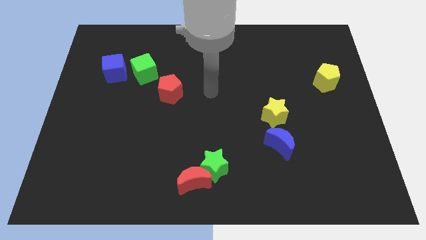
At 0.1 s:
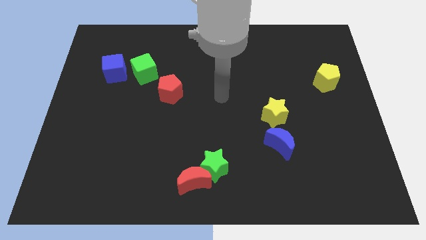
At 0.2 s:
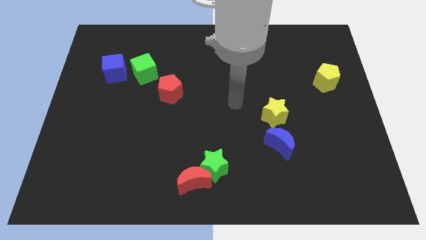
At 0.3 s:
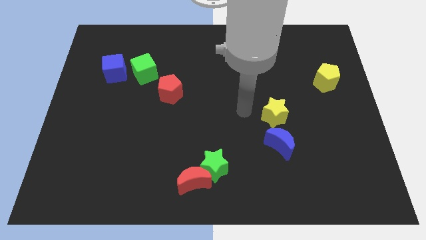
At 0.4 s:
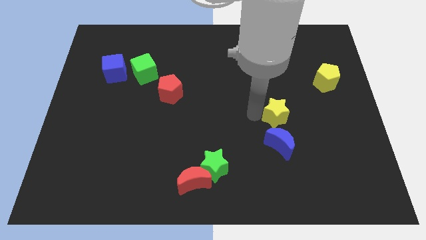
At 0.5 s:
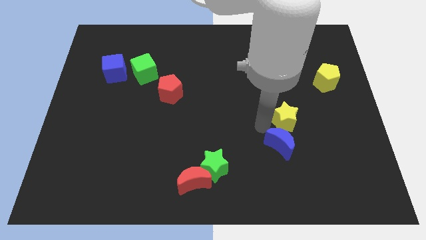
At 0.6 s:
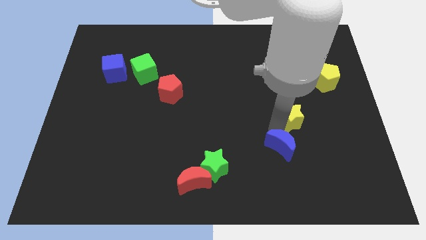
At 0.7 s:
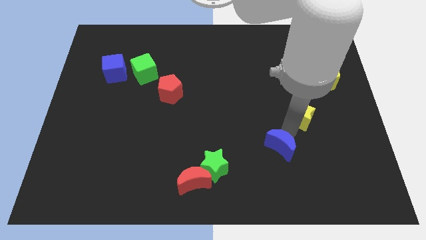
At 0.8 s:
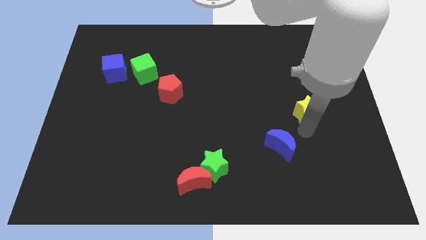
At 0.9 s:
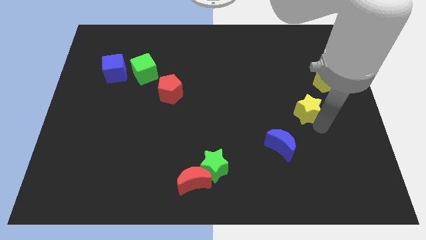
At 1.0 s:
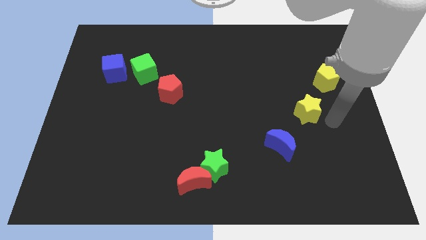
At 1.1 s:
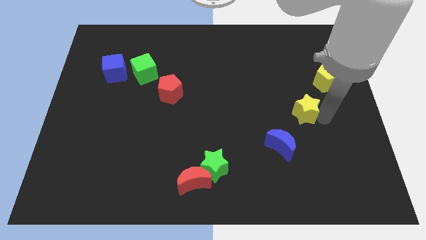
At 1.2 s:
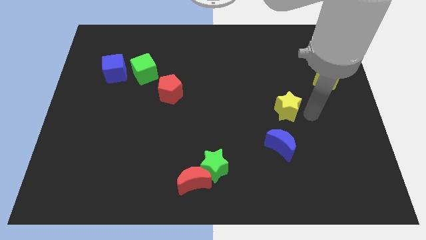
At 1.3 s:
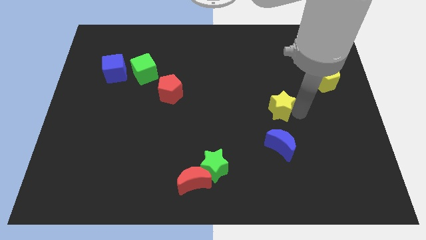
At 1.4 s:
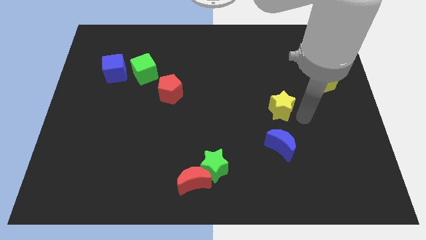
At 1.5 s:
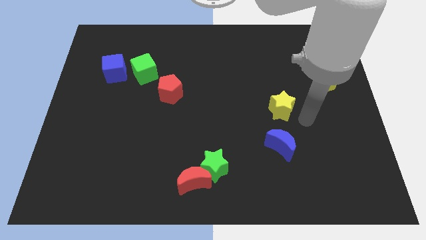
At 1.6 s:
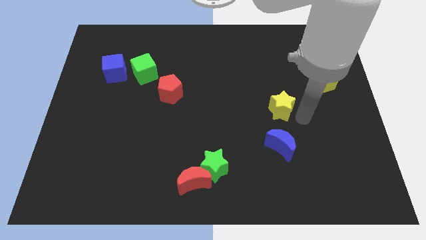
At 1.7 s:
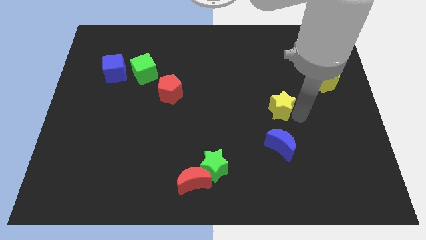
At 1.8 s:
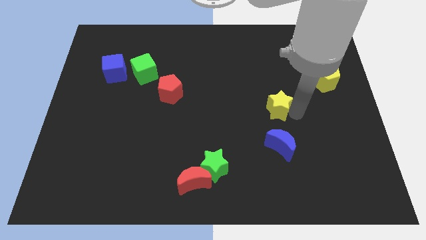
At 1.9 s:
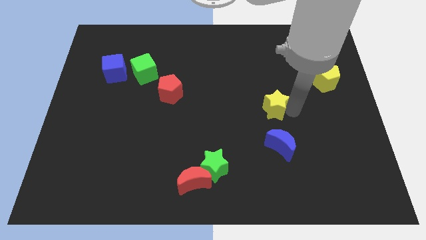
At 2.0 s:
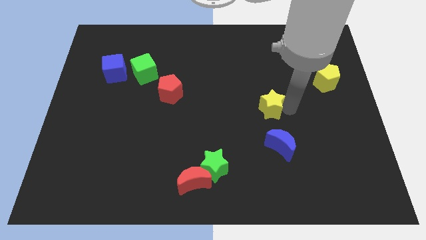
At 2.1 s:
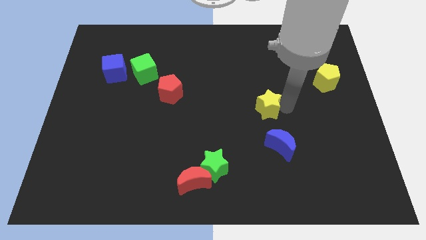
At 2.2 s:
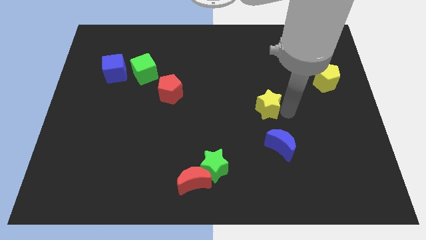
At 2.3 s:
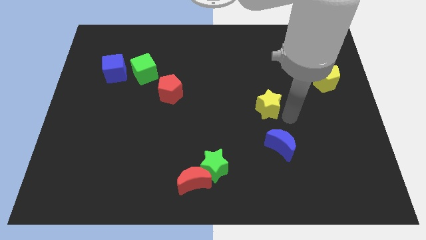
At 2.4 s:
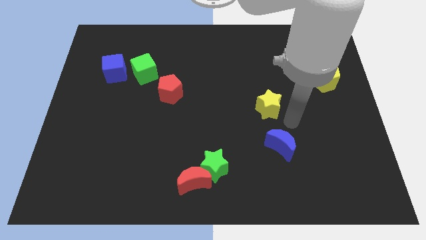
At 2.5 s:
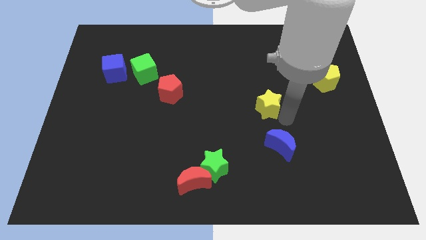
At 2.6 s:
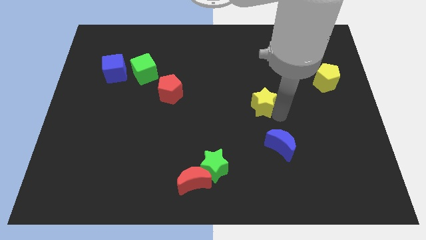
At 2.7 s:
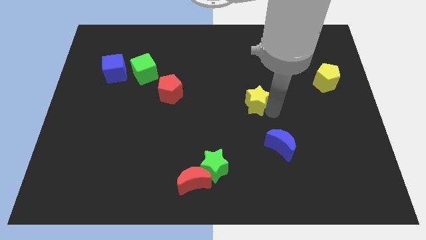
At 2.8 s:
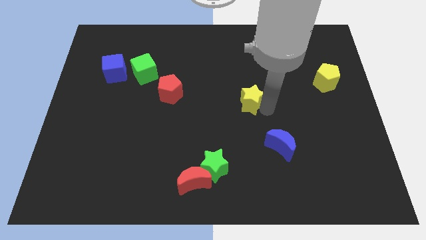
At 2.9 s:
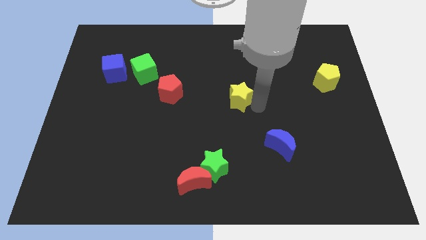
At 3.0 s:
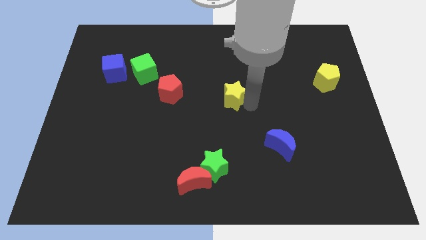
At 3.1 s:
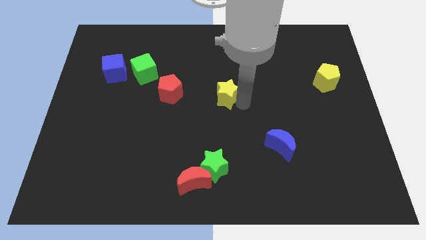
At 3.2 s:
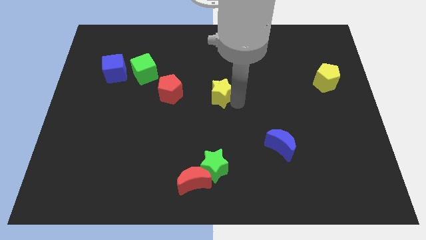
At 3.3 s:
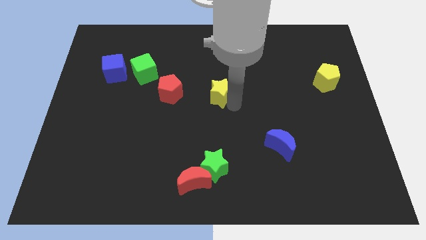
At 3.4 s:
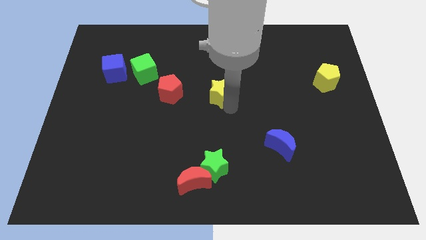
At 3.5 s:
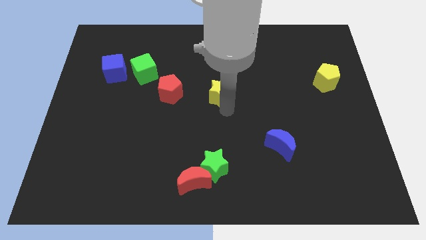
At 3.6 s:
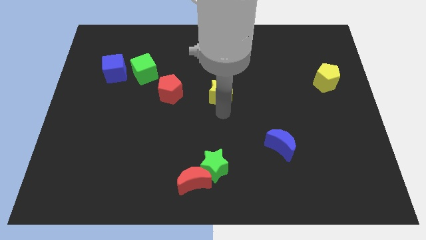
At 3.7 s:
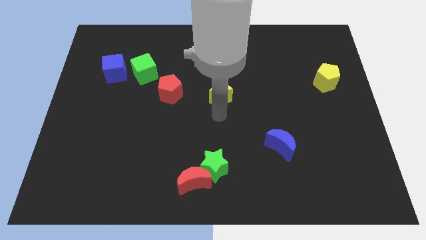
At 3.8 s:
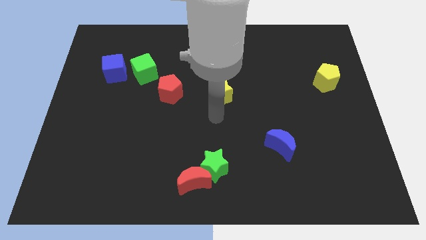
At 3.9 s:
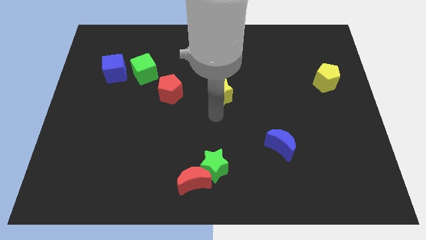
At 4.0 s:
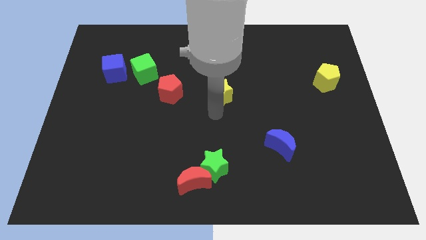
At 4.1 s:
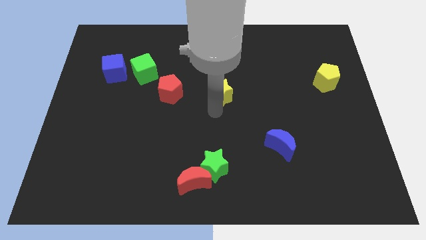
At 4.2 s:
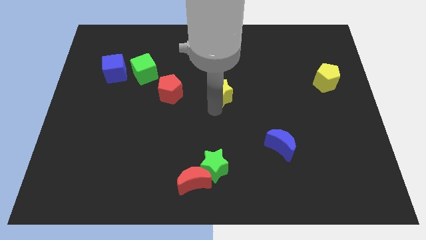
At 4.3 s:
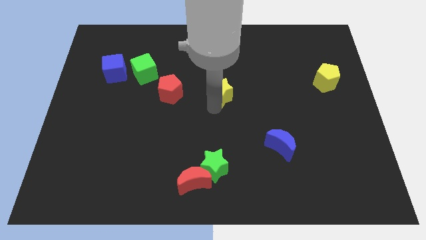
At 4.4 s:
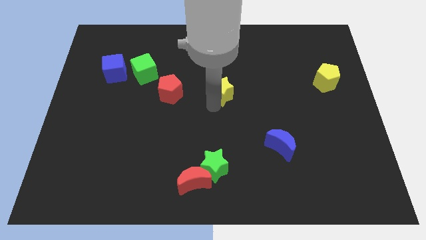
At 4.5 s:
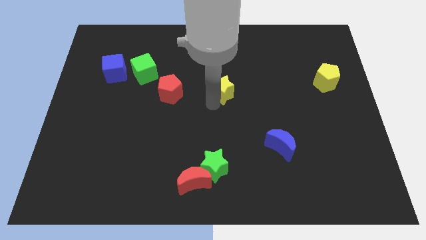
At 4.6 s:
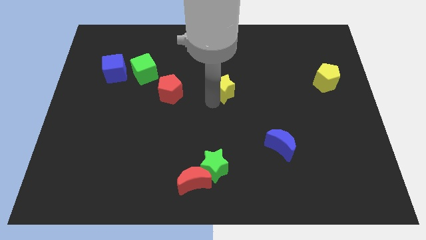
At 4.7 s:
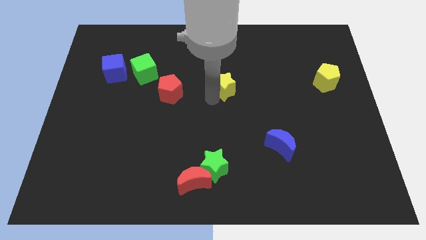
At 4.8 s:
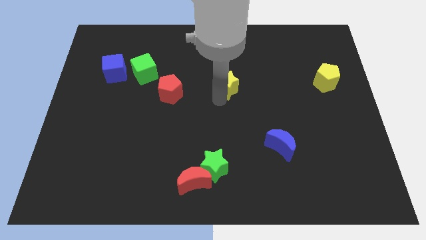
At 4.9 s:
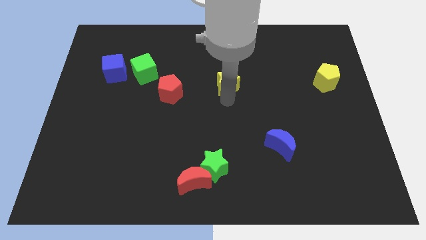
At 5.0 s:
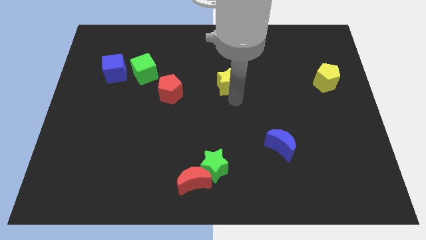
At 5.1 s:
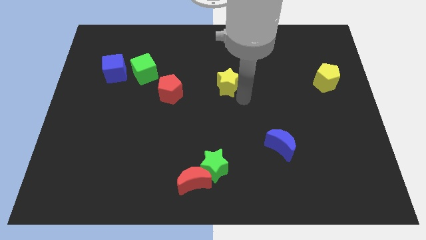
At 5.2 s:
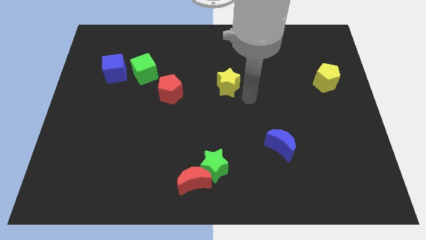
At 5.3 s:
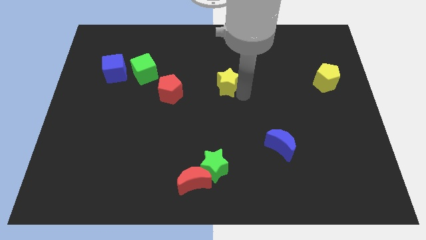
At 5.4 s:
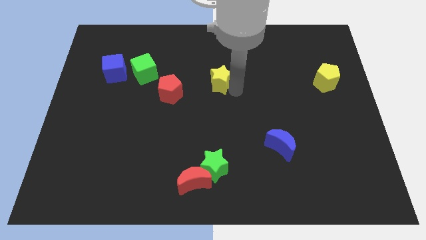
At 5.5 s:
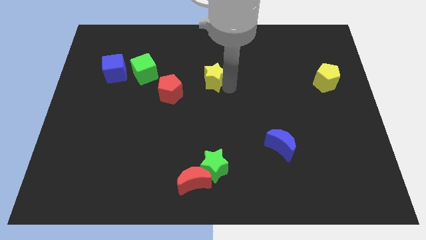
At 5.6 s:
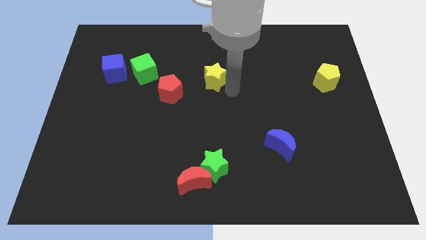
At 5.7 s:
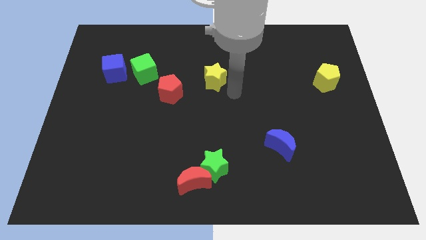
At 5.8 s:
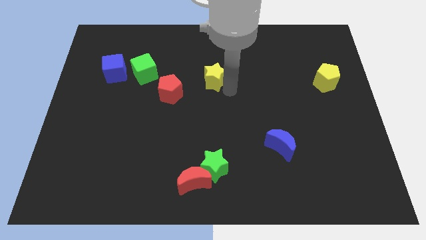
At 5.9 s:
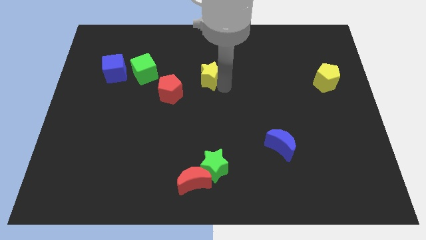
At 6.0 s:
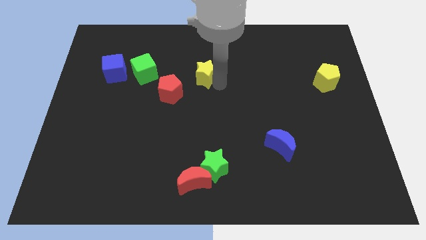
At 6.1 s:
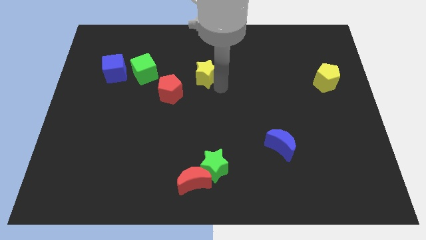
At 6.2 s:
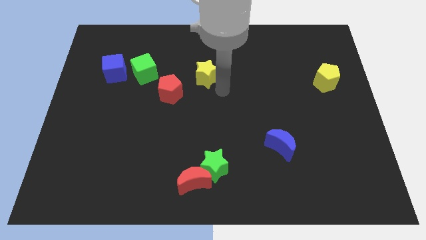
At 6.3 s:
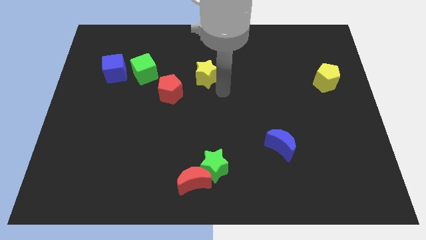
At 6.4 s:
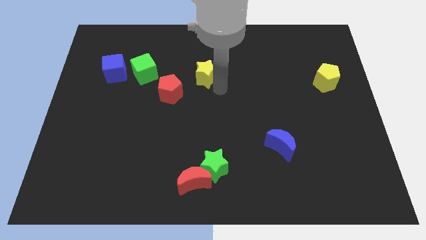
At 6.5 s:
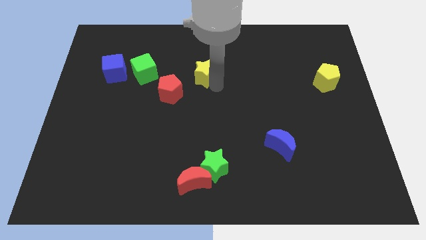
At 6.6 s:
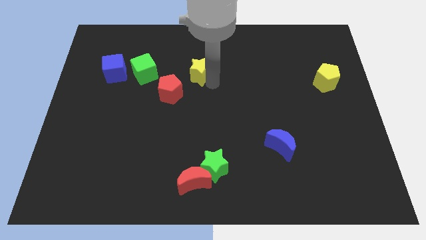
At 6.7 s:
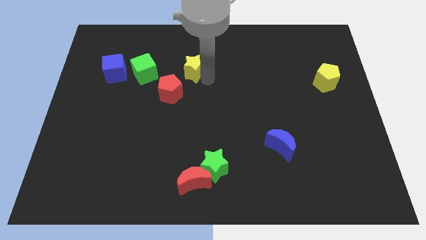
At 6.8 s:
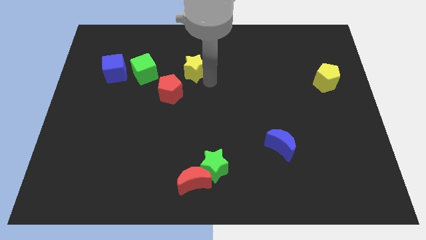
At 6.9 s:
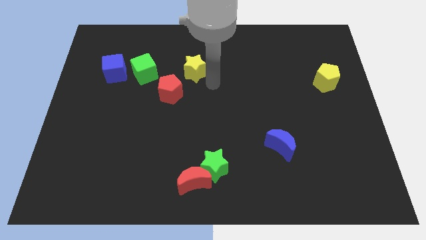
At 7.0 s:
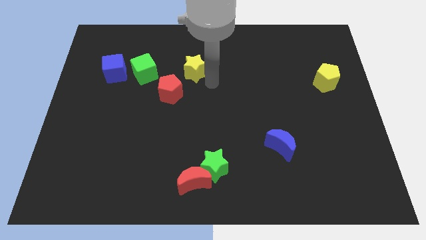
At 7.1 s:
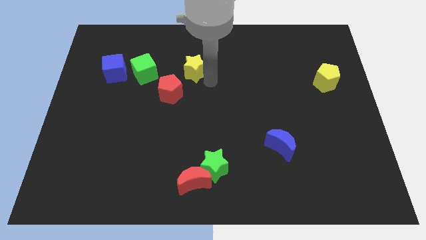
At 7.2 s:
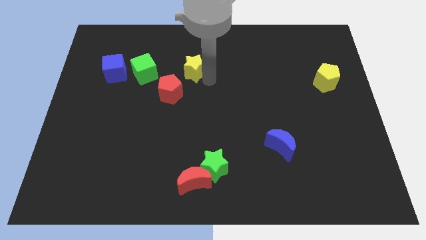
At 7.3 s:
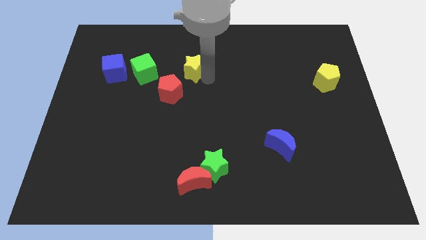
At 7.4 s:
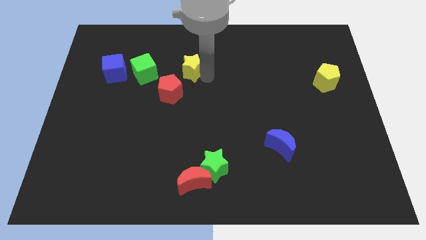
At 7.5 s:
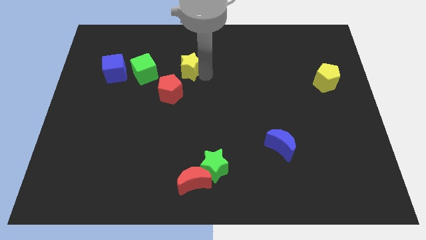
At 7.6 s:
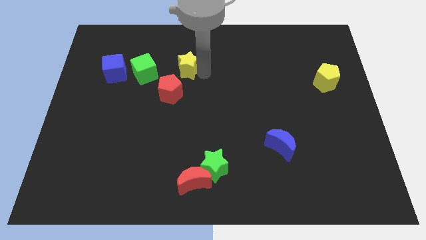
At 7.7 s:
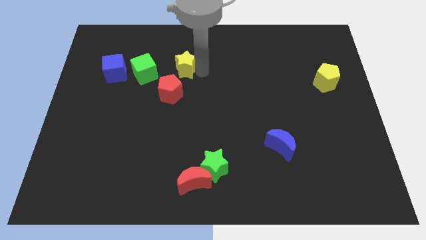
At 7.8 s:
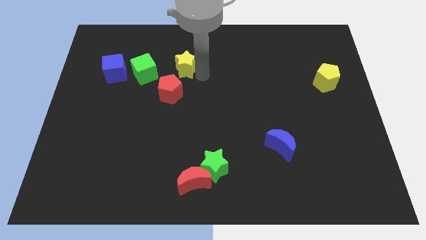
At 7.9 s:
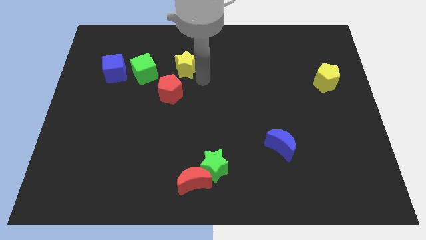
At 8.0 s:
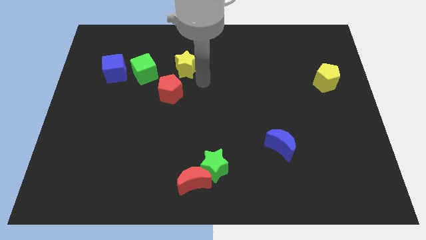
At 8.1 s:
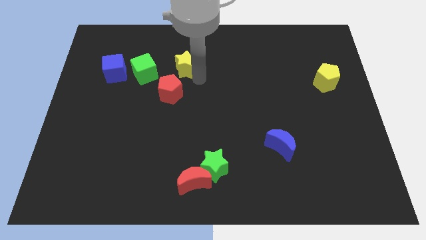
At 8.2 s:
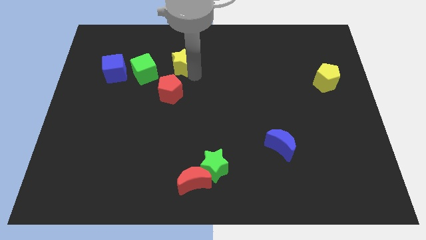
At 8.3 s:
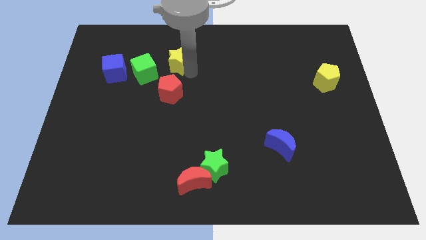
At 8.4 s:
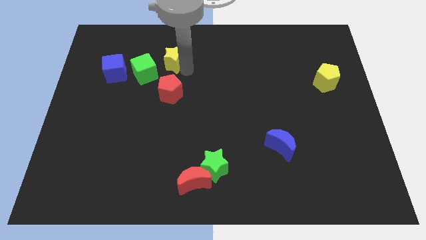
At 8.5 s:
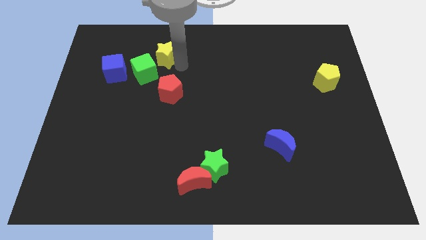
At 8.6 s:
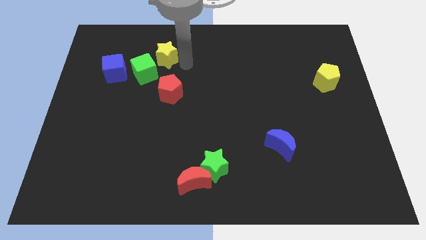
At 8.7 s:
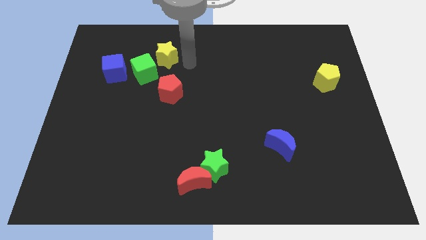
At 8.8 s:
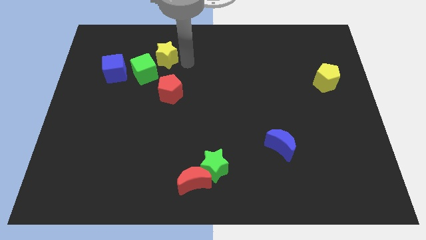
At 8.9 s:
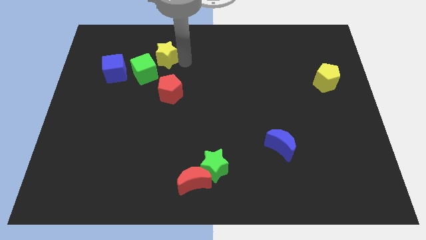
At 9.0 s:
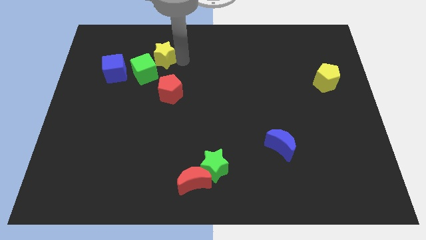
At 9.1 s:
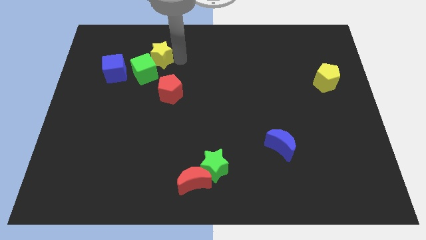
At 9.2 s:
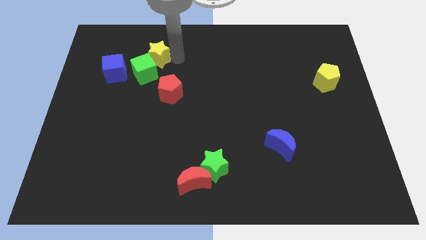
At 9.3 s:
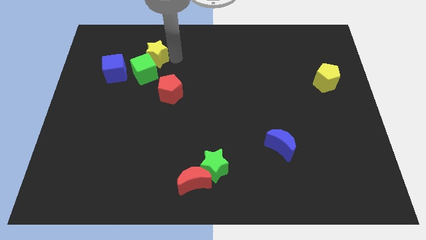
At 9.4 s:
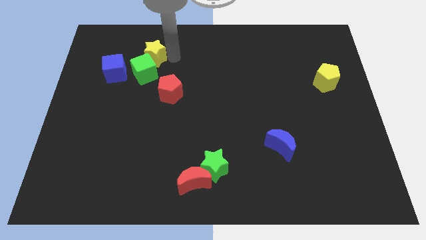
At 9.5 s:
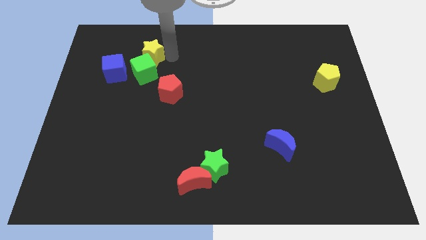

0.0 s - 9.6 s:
slide the yellow star to the top left side of the green cube
